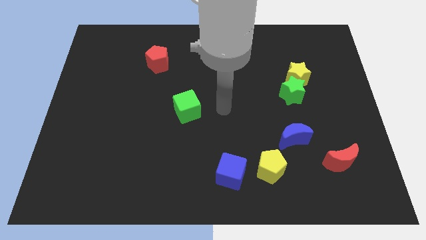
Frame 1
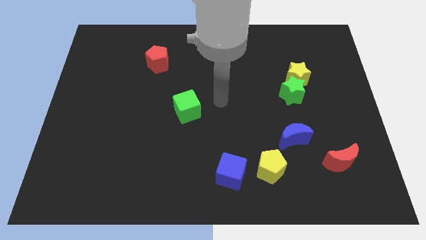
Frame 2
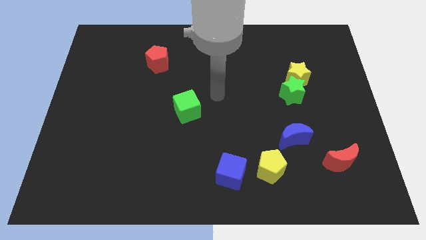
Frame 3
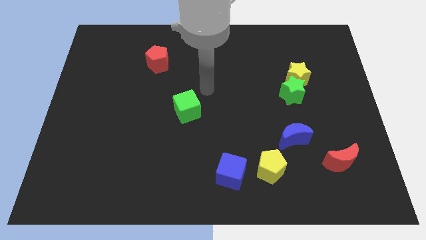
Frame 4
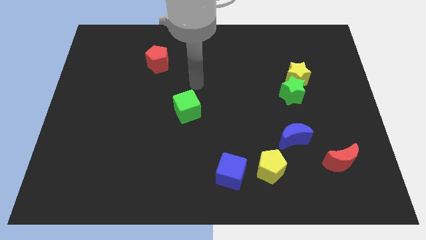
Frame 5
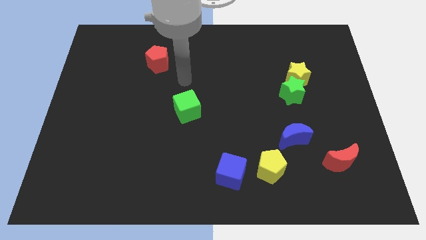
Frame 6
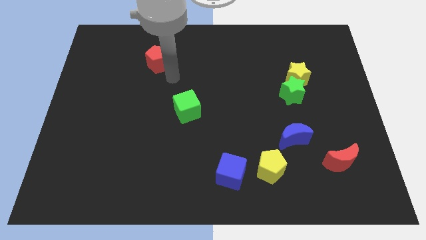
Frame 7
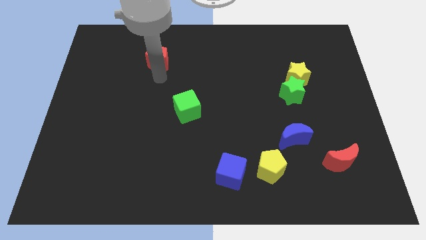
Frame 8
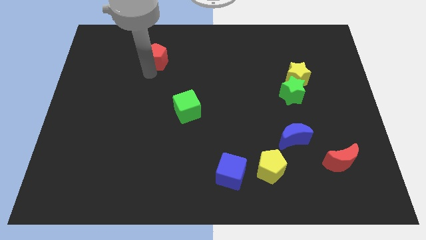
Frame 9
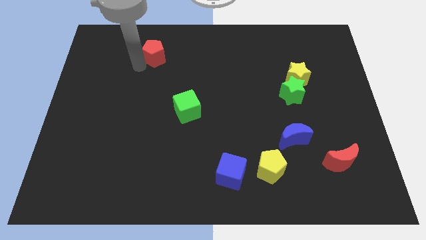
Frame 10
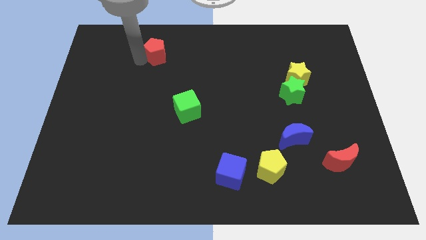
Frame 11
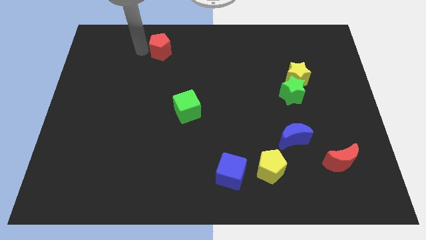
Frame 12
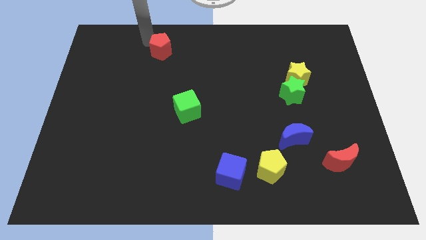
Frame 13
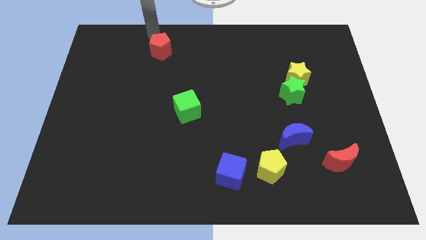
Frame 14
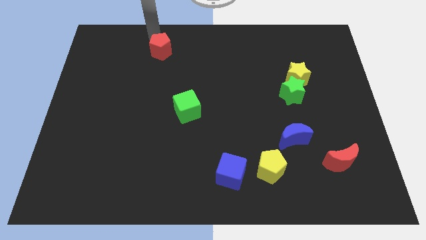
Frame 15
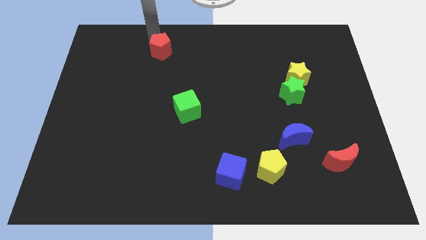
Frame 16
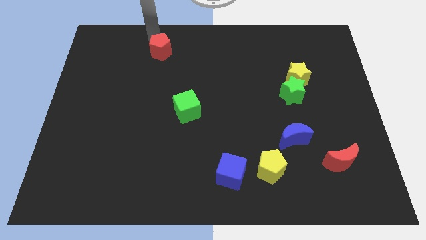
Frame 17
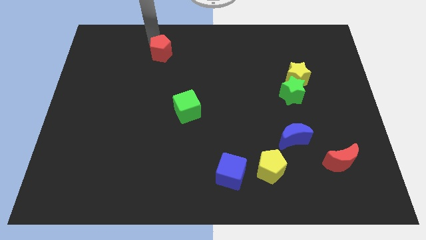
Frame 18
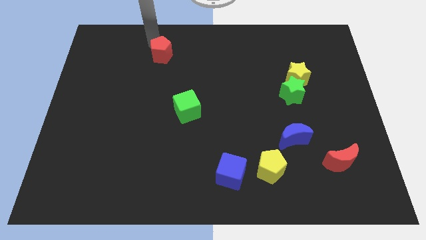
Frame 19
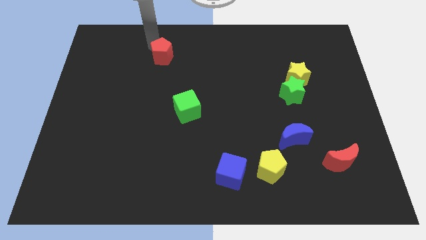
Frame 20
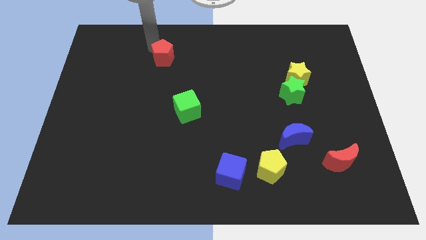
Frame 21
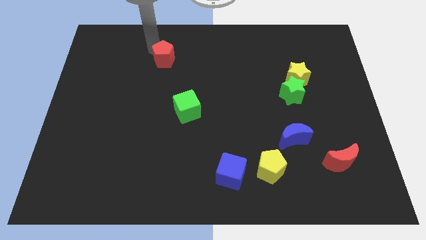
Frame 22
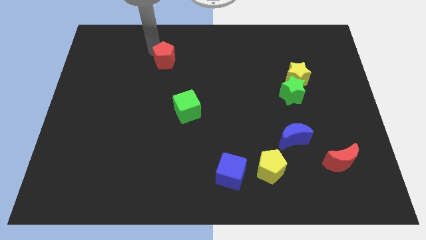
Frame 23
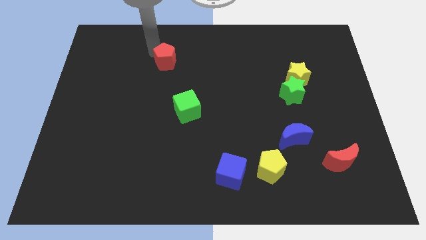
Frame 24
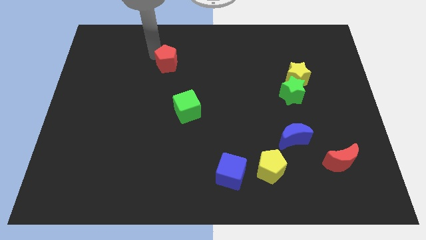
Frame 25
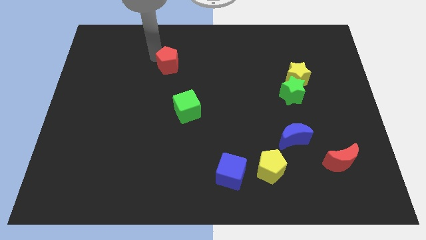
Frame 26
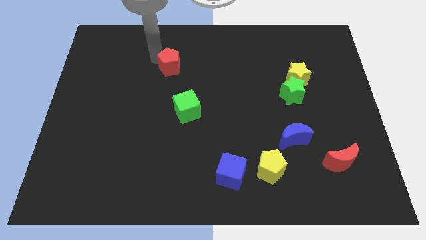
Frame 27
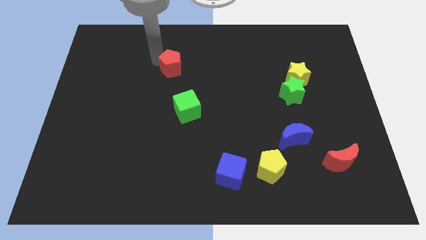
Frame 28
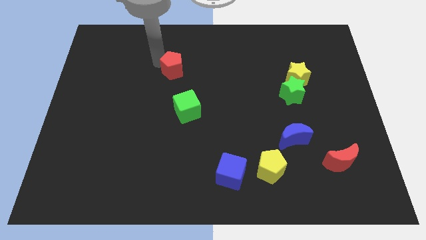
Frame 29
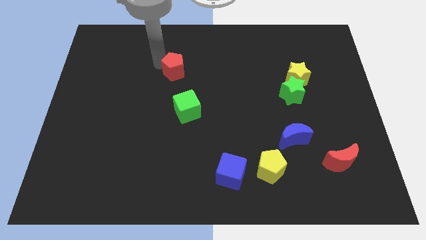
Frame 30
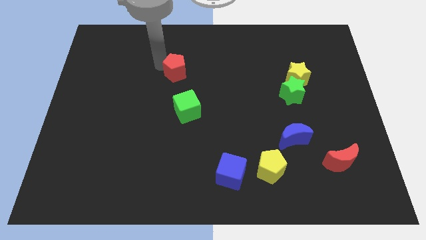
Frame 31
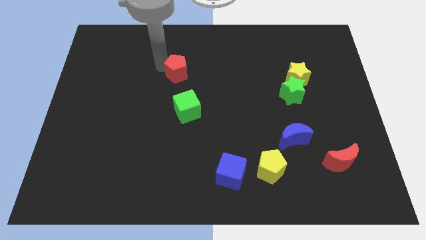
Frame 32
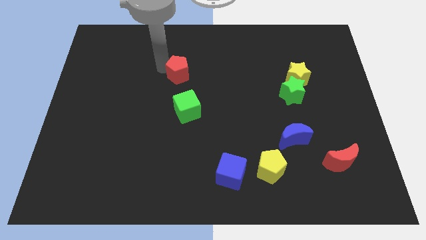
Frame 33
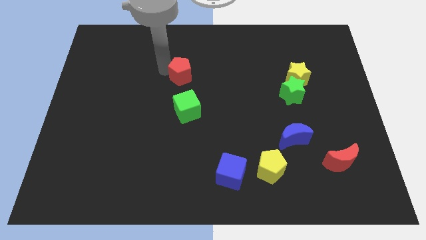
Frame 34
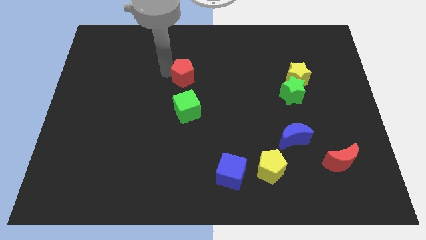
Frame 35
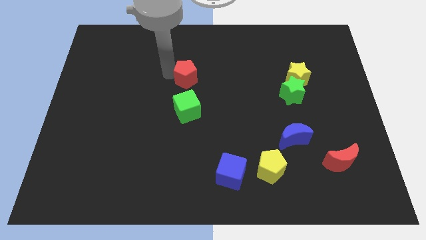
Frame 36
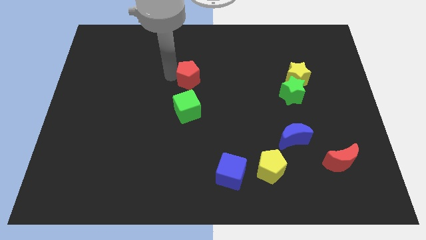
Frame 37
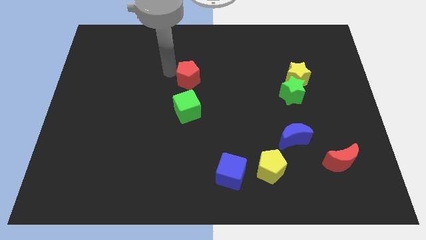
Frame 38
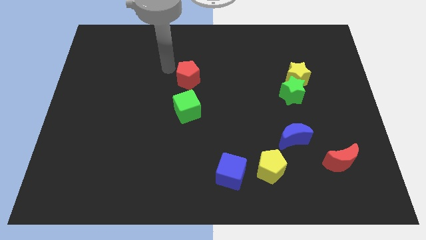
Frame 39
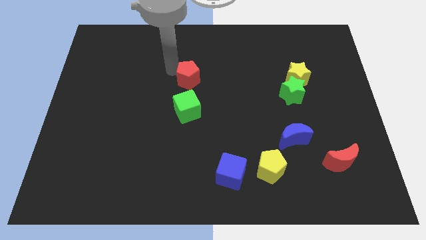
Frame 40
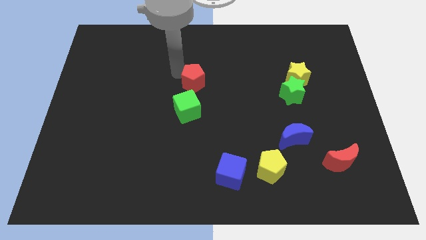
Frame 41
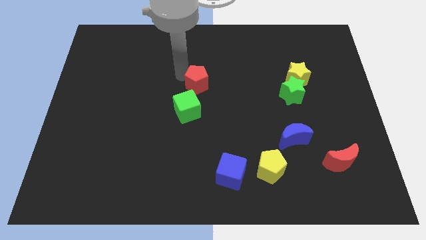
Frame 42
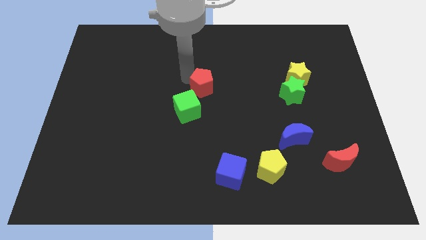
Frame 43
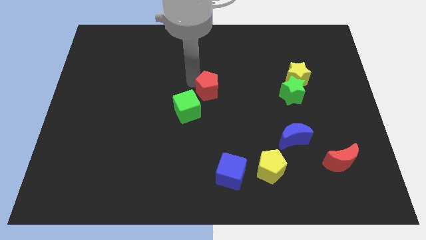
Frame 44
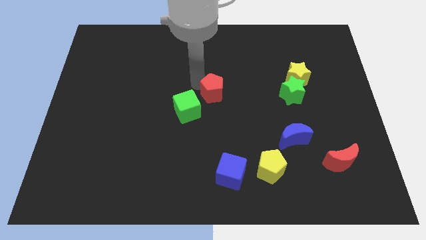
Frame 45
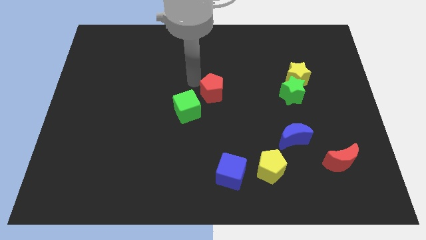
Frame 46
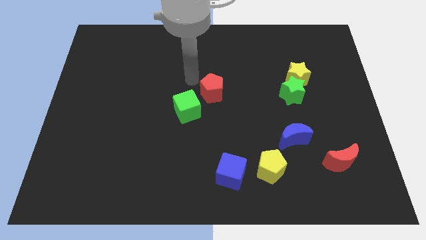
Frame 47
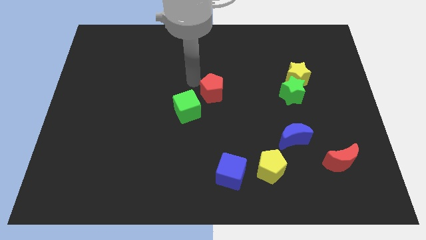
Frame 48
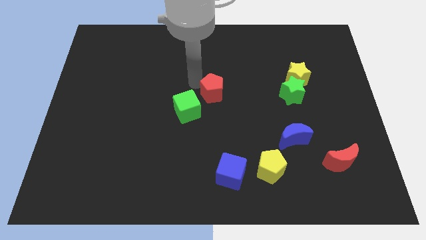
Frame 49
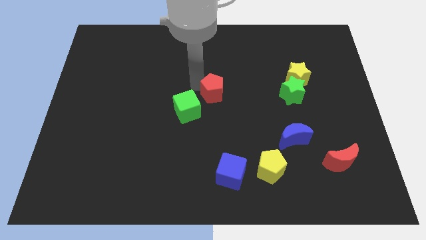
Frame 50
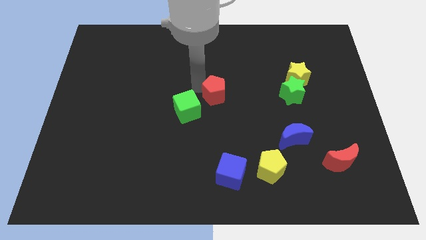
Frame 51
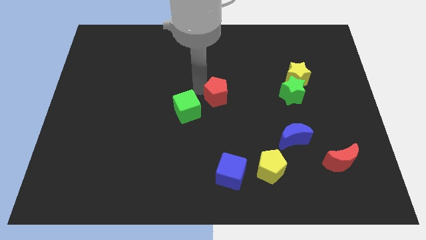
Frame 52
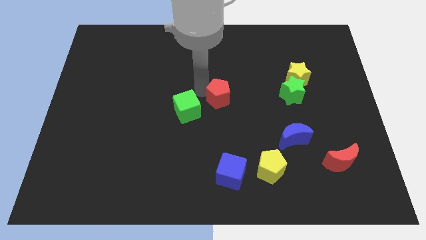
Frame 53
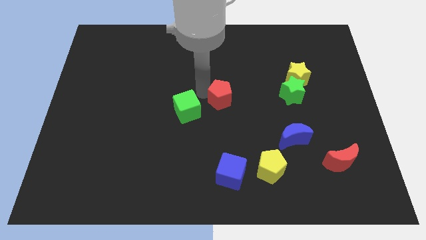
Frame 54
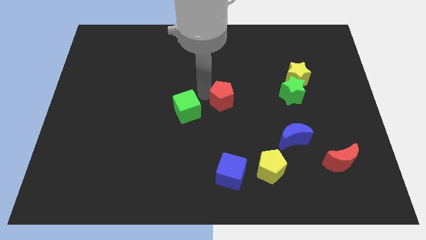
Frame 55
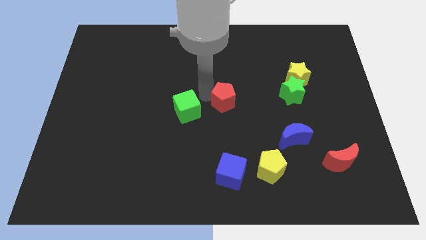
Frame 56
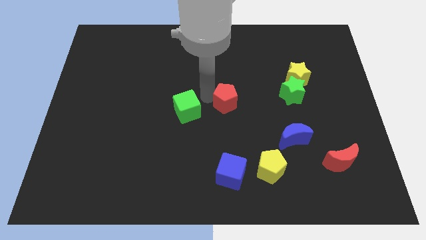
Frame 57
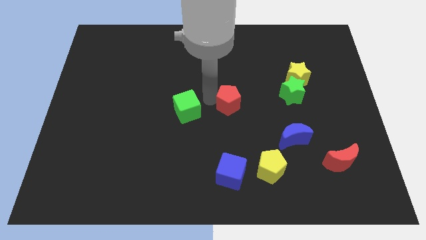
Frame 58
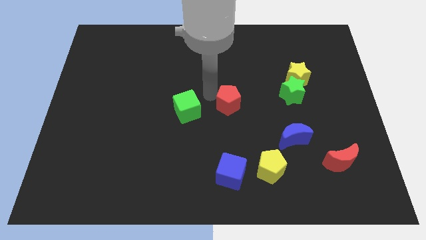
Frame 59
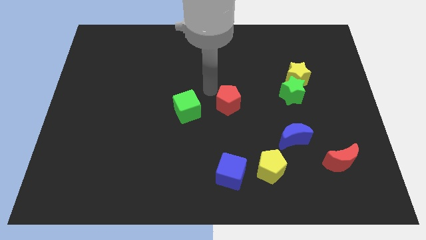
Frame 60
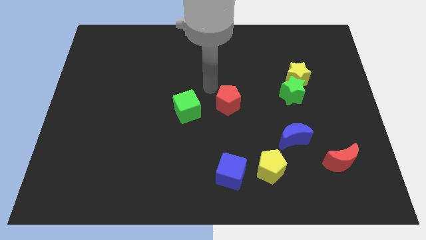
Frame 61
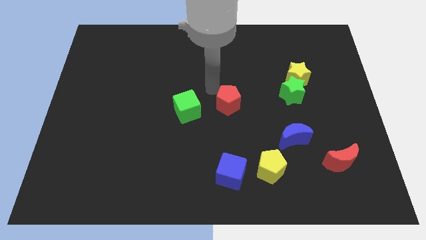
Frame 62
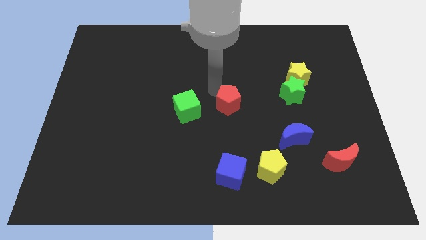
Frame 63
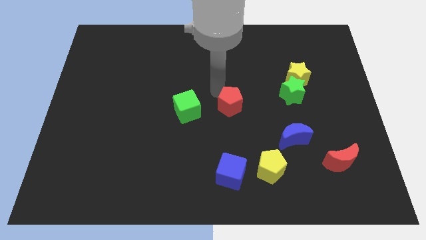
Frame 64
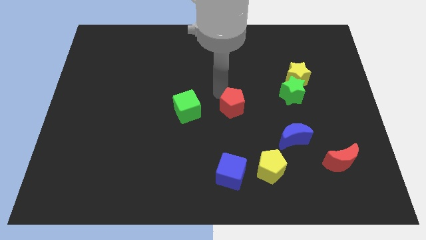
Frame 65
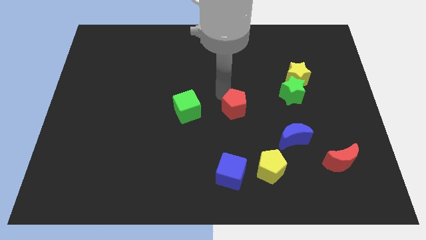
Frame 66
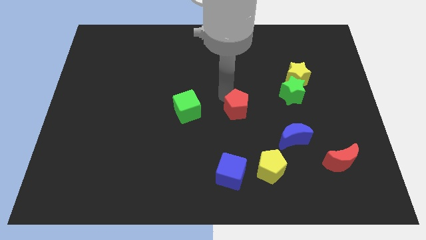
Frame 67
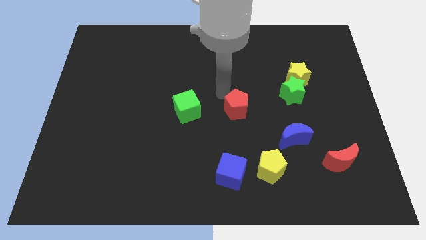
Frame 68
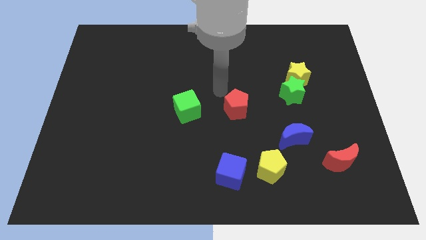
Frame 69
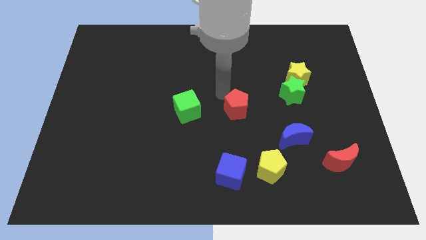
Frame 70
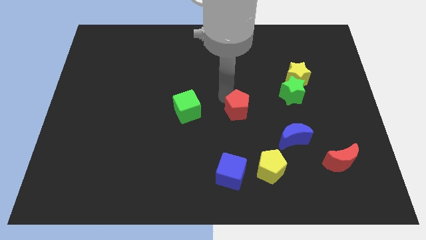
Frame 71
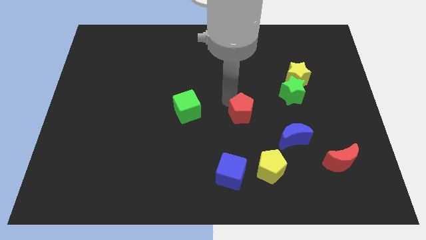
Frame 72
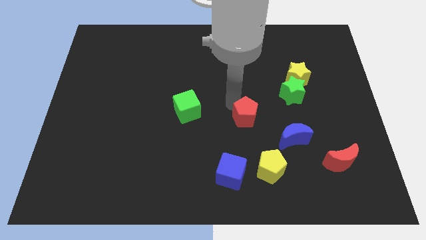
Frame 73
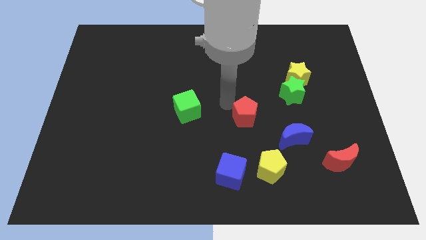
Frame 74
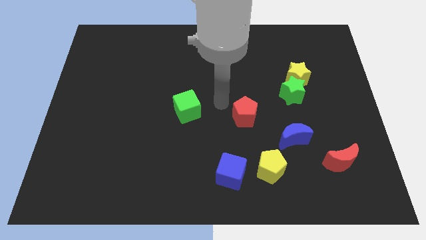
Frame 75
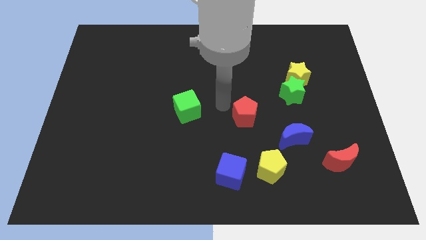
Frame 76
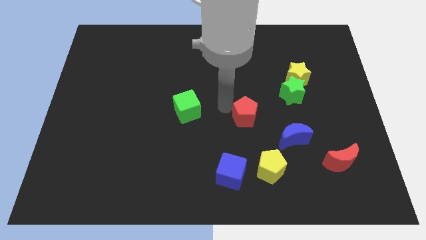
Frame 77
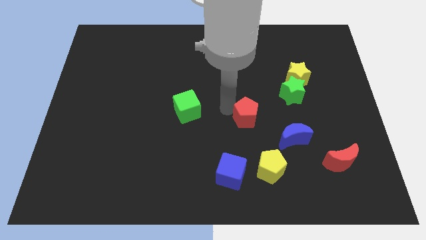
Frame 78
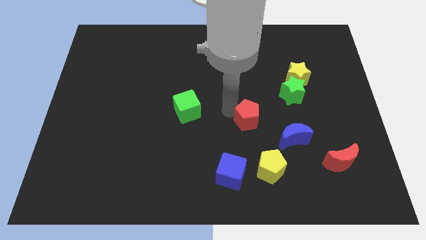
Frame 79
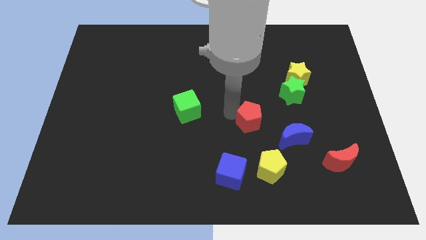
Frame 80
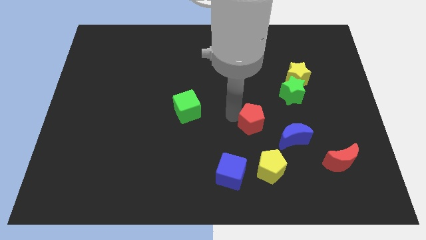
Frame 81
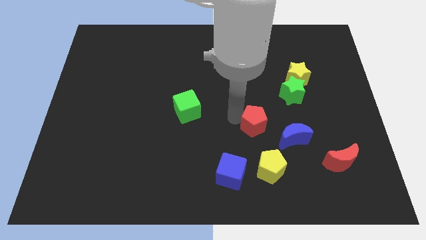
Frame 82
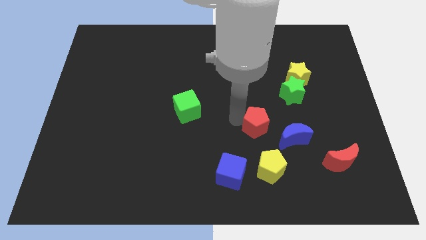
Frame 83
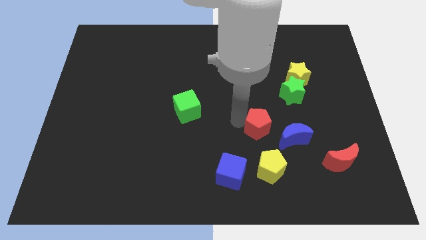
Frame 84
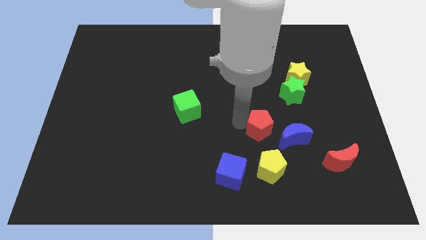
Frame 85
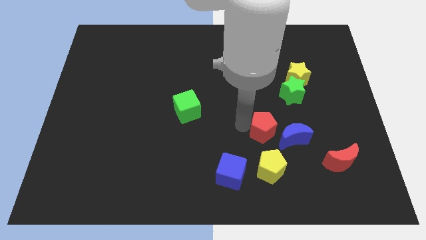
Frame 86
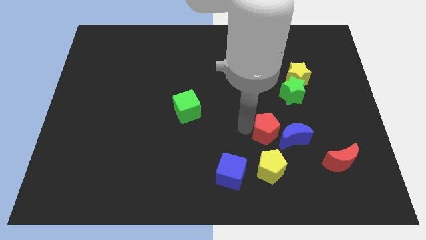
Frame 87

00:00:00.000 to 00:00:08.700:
move the red pentagon to the blue moon
